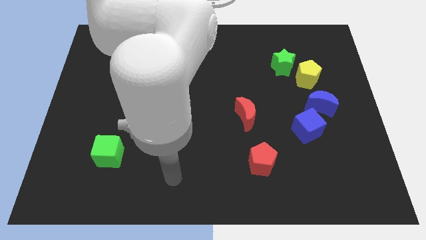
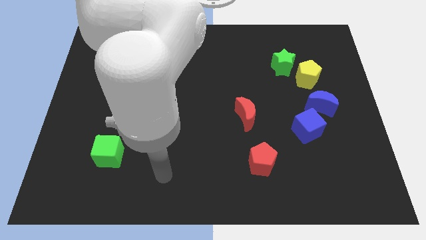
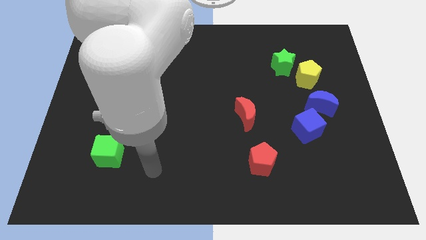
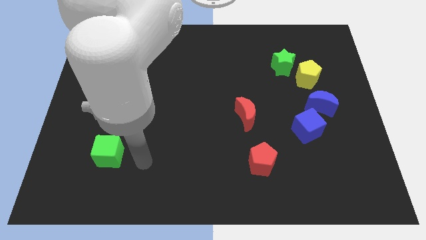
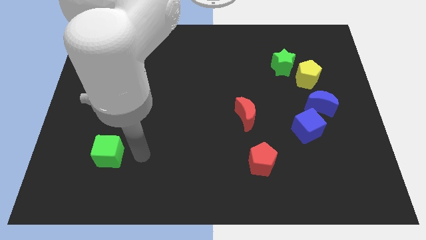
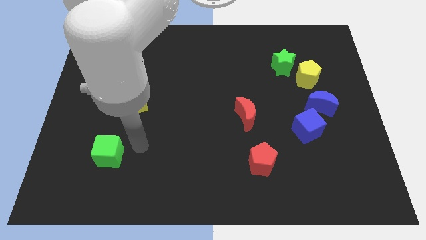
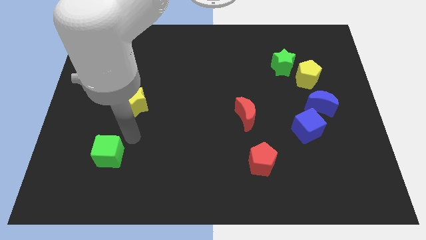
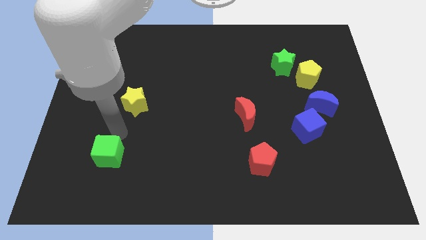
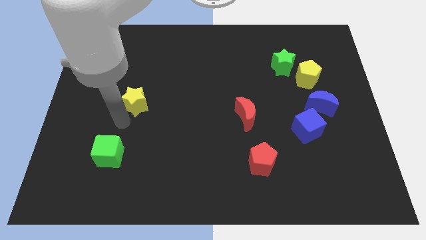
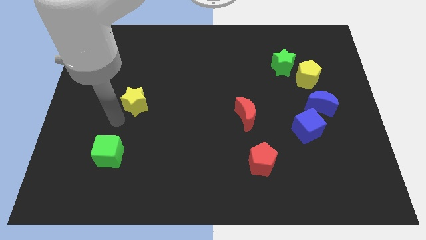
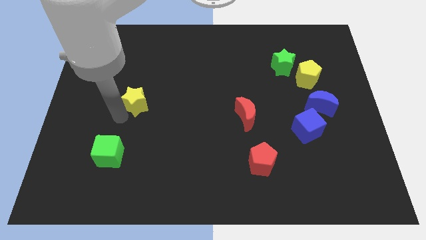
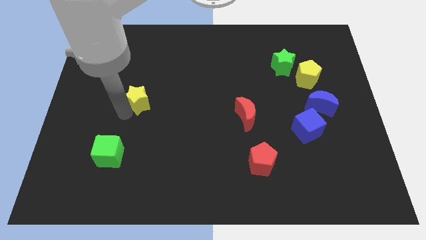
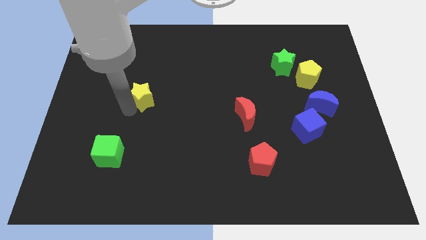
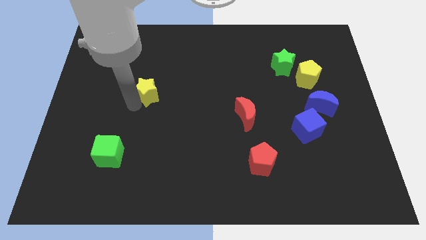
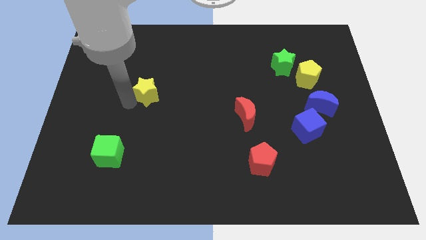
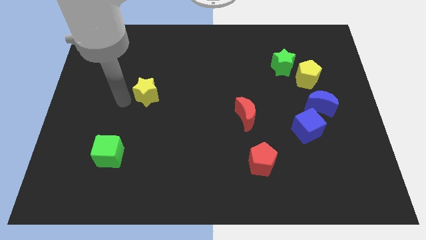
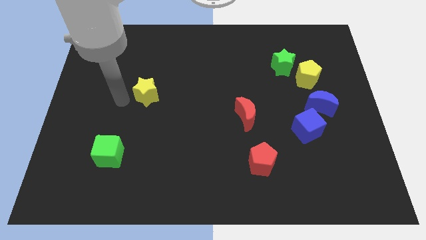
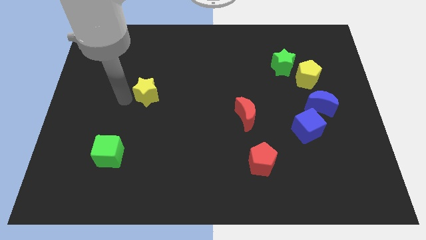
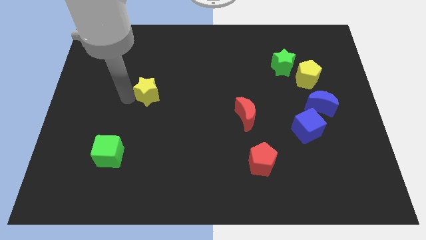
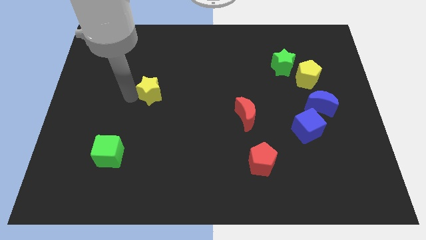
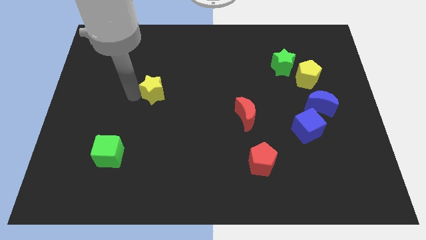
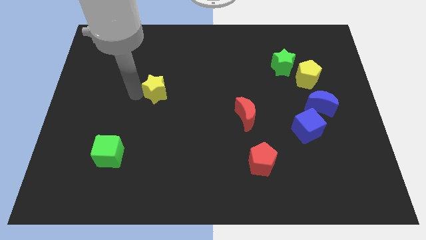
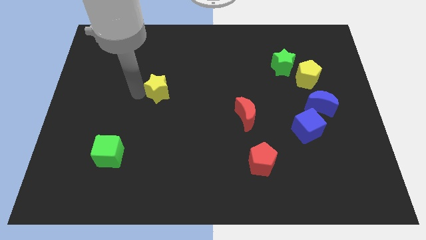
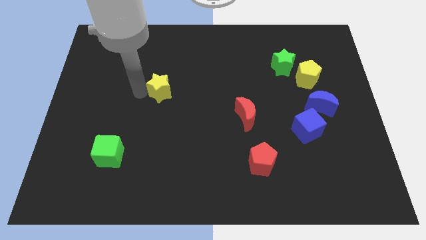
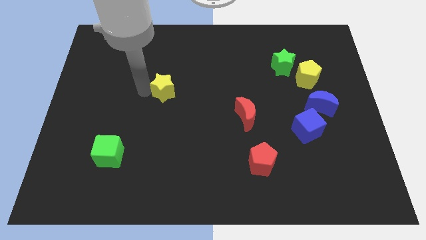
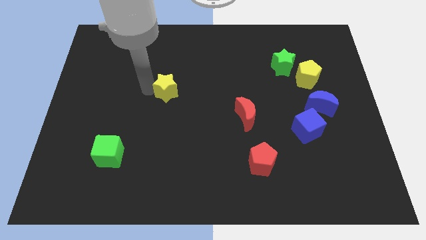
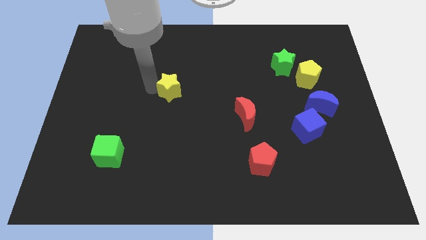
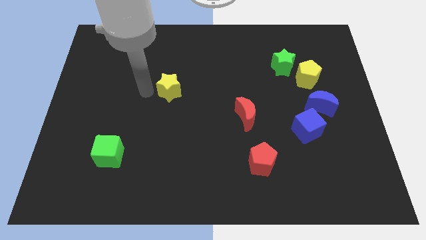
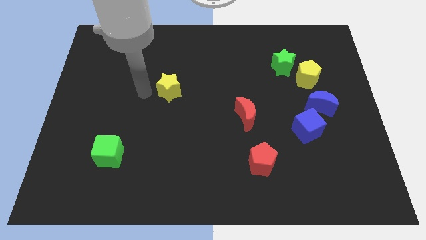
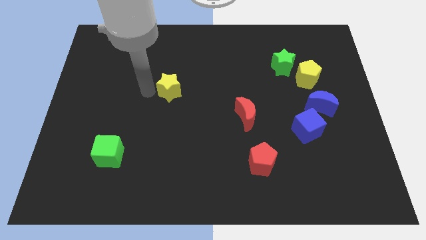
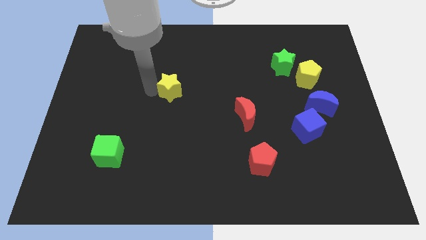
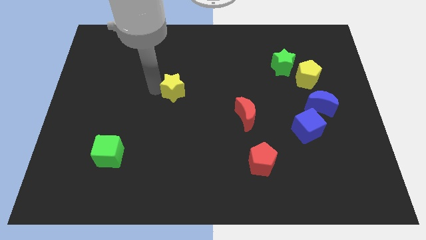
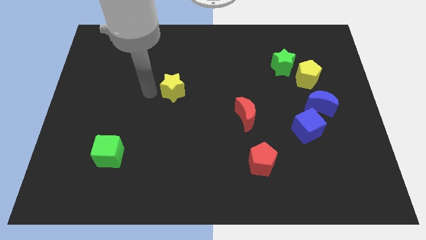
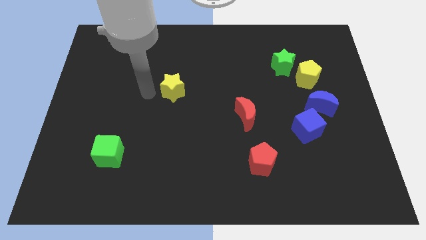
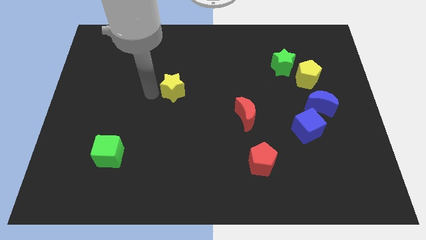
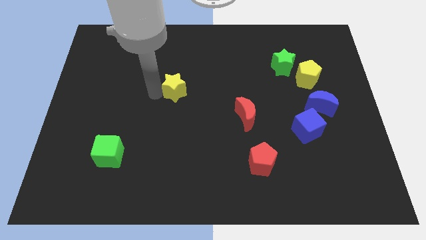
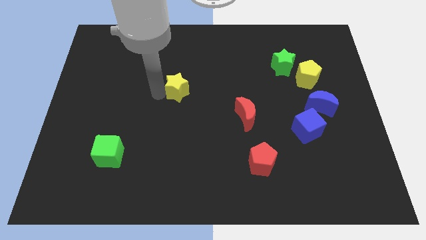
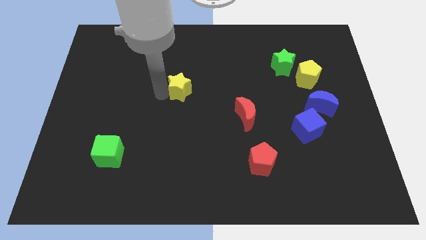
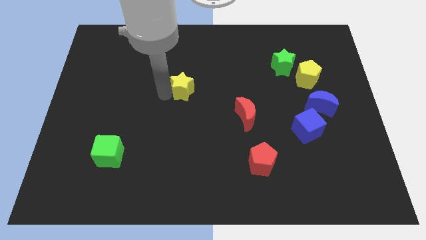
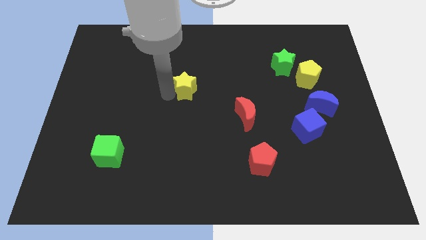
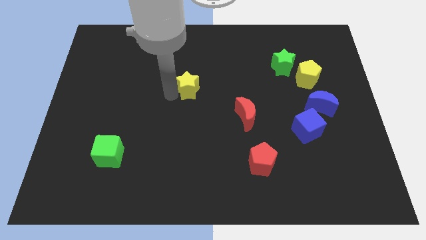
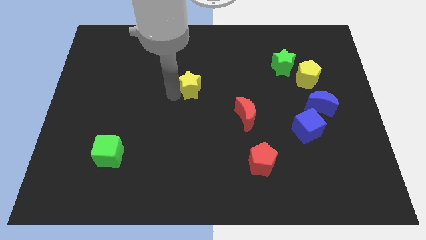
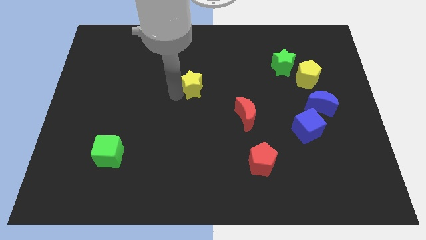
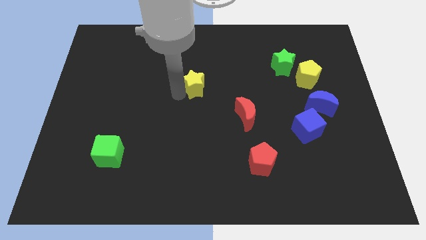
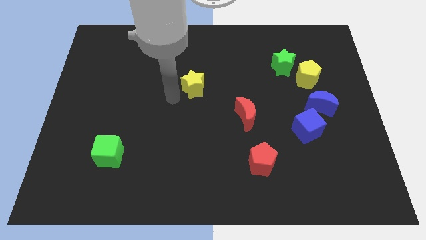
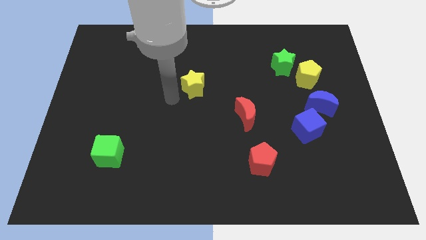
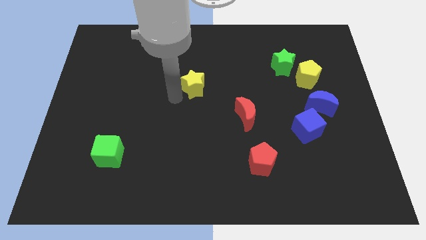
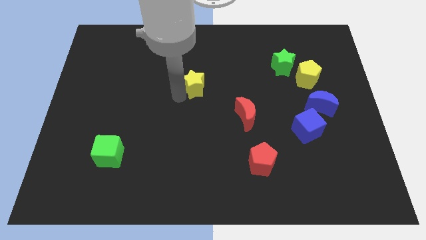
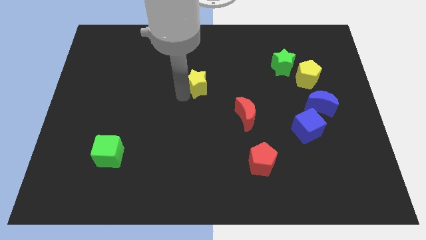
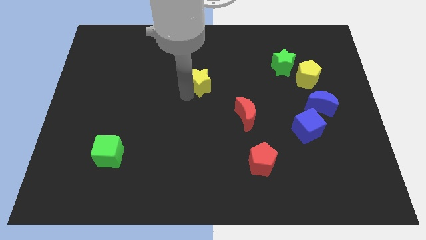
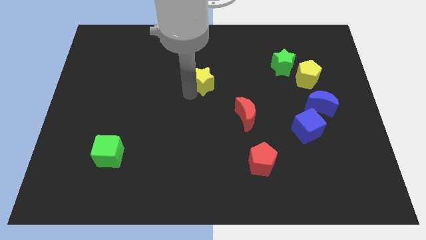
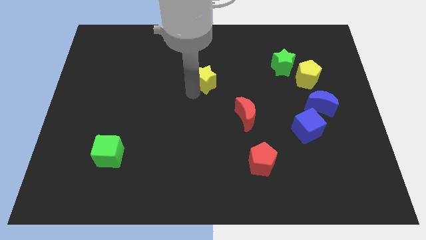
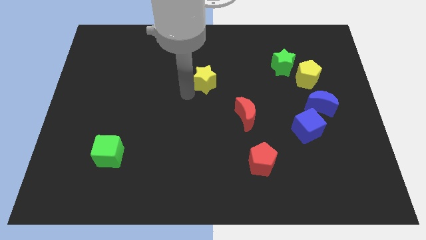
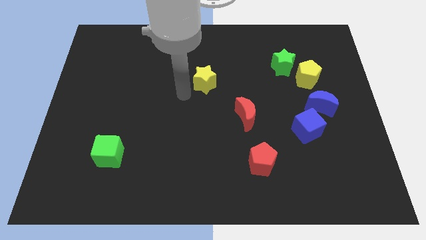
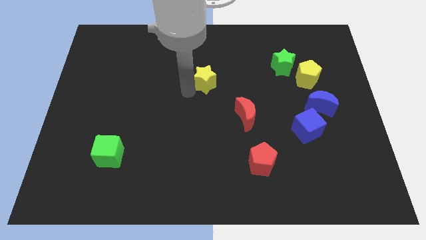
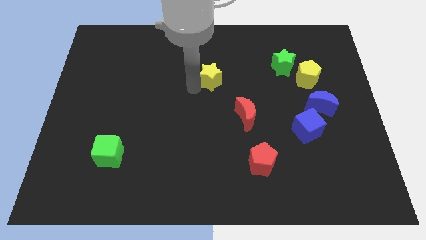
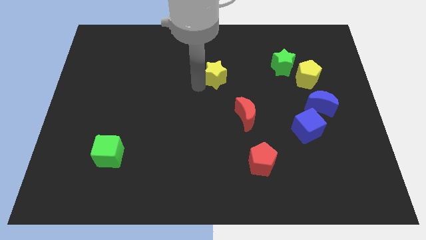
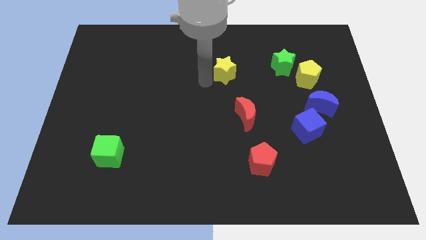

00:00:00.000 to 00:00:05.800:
move the yellow star to the left of the green star

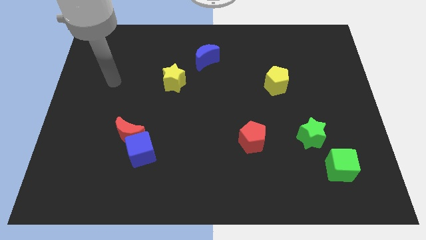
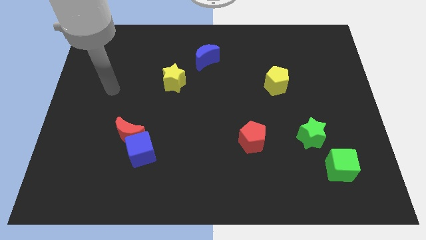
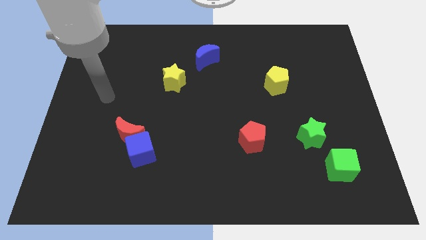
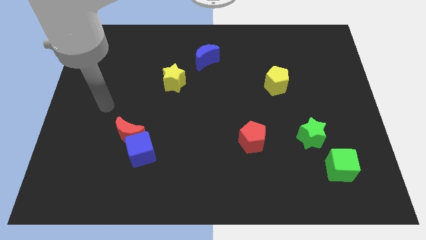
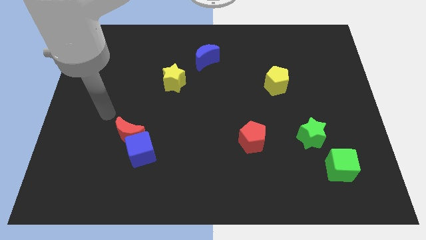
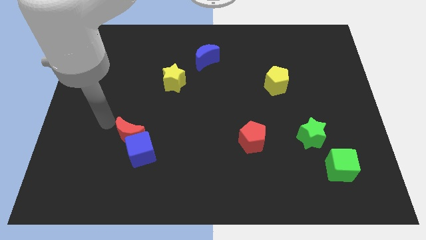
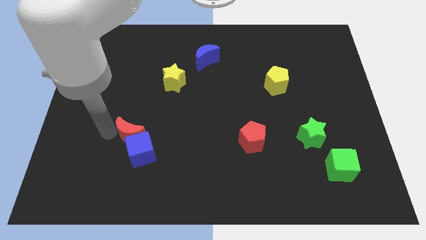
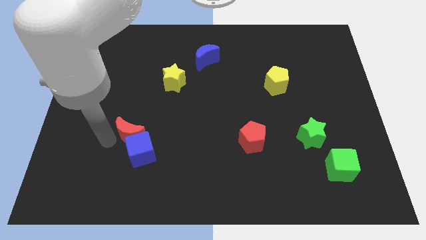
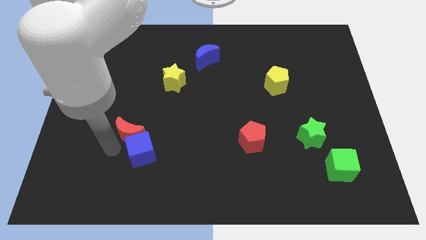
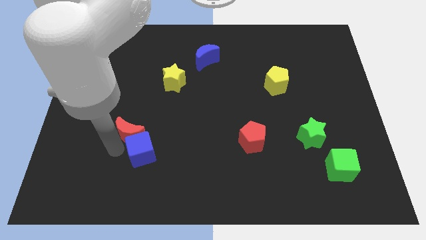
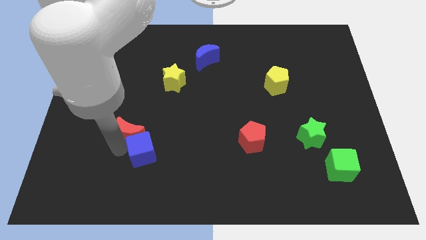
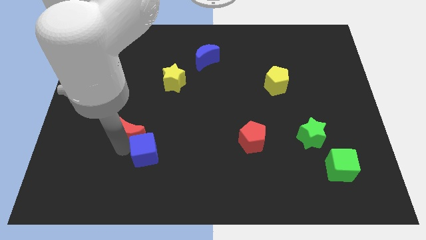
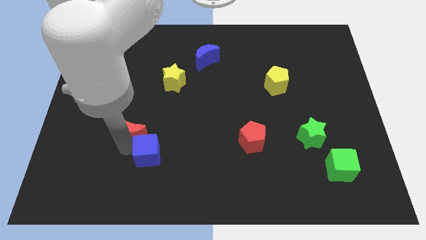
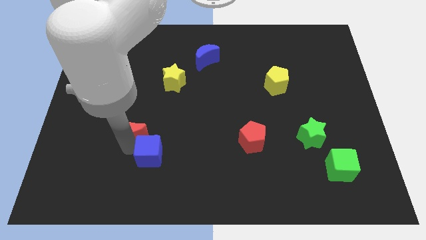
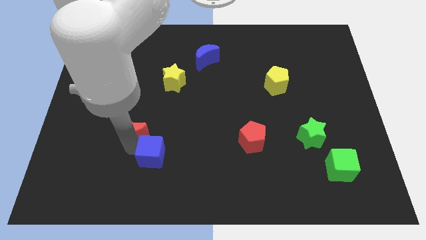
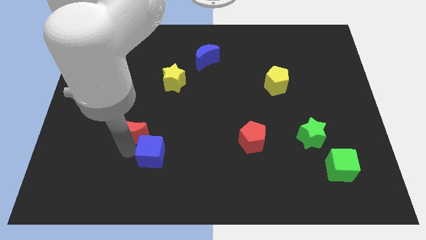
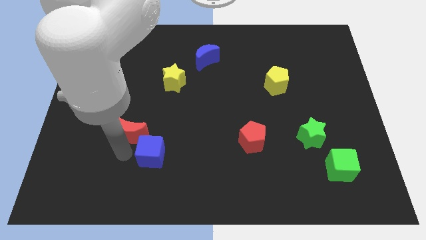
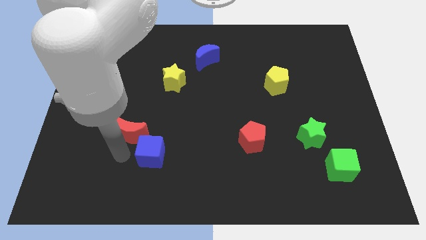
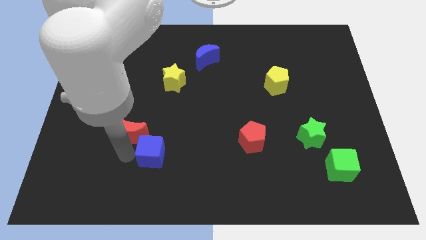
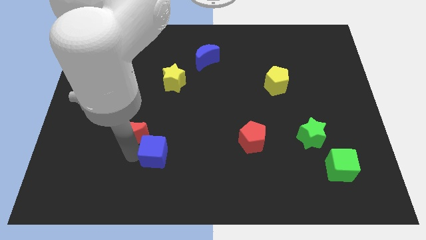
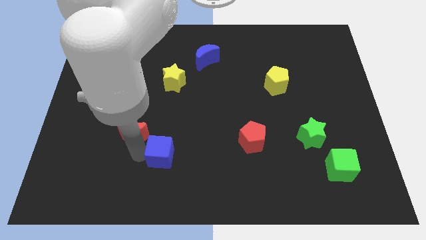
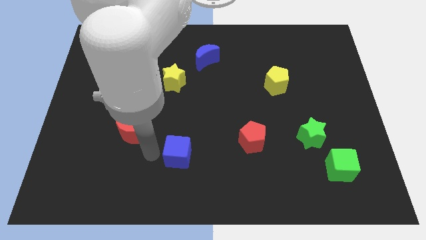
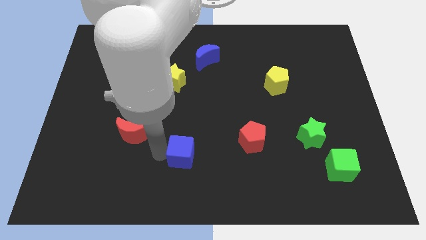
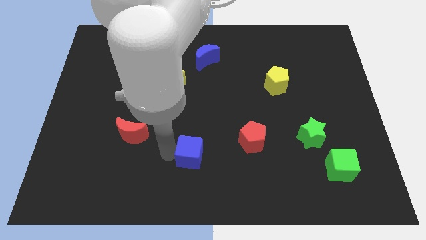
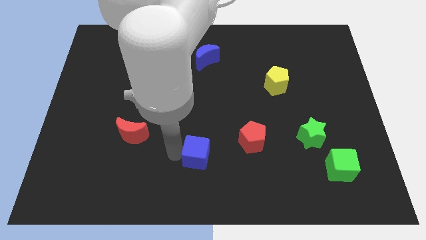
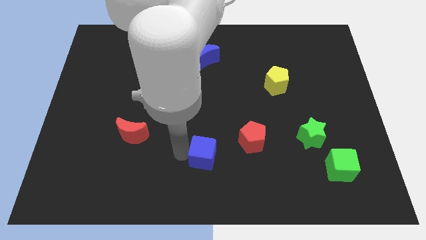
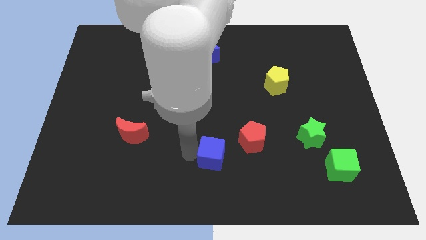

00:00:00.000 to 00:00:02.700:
put the blue cube diagonally down and to the left of the red pentagon
